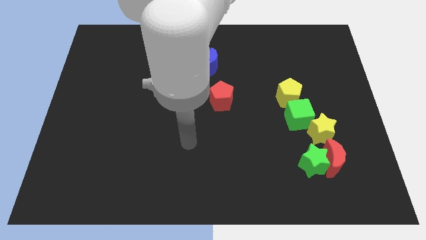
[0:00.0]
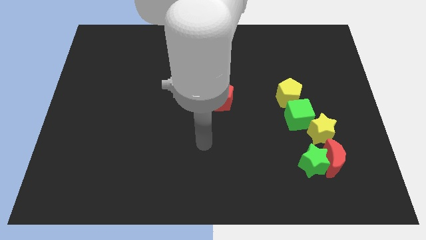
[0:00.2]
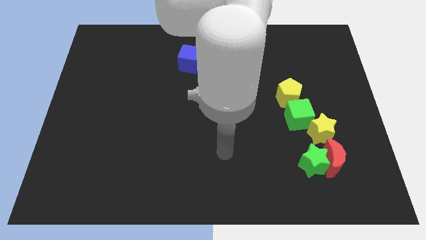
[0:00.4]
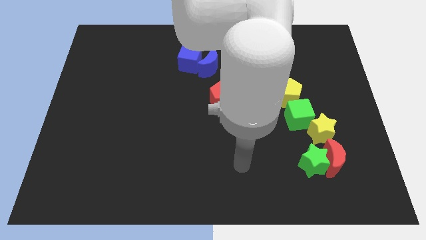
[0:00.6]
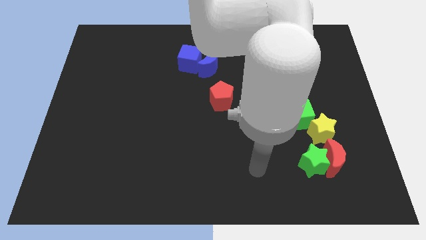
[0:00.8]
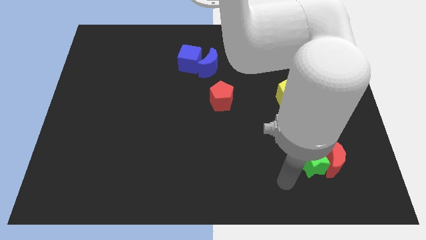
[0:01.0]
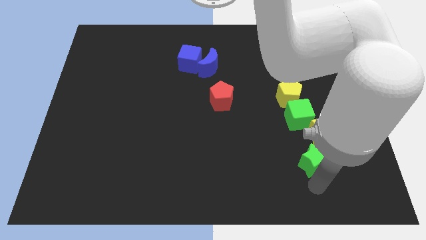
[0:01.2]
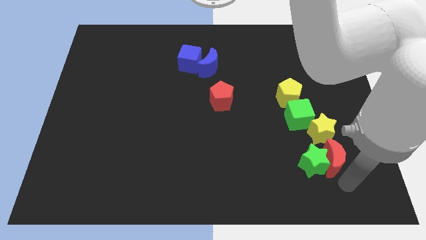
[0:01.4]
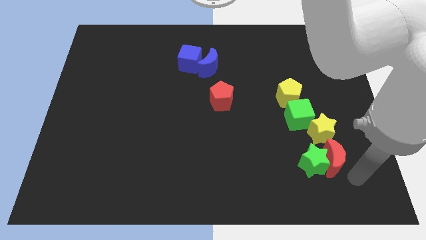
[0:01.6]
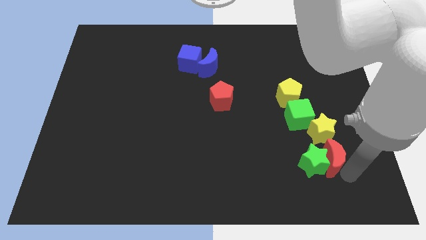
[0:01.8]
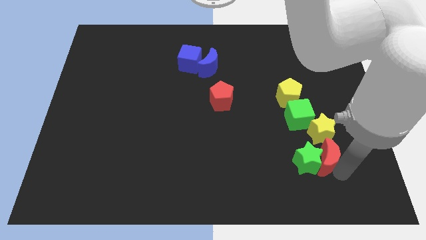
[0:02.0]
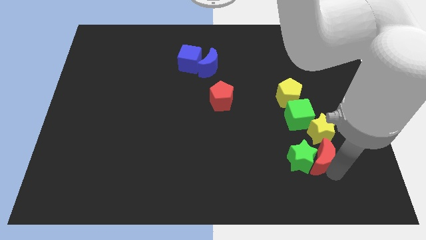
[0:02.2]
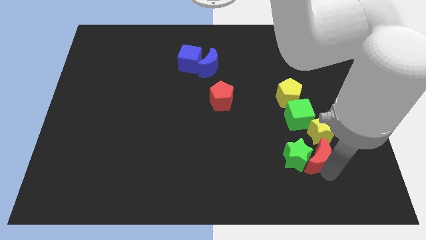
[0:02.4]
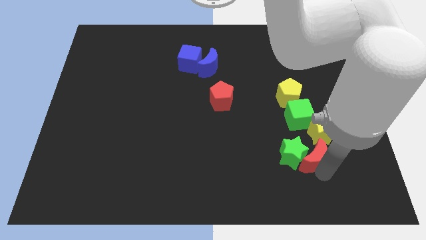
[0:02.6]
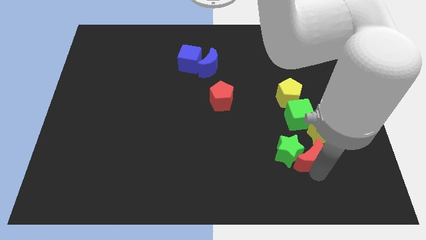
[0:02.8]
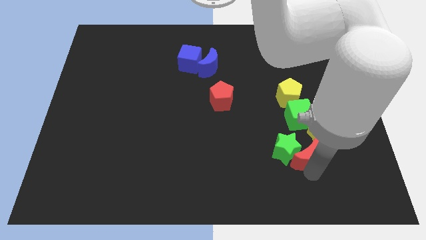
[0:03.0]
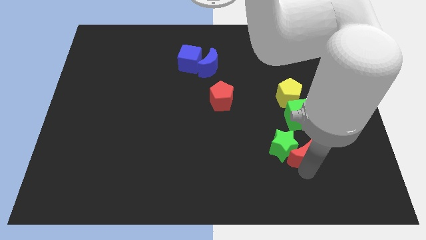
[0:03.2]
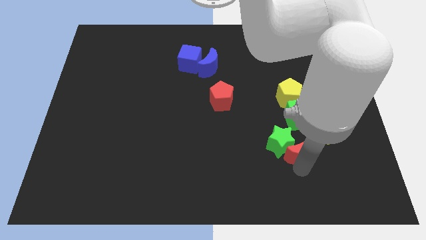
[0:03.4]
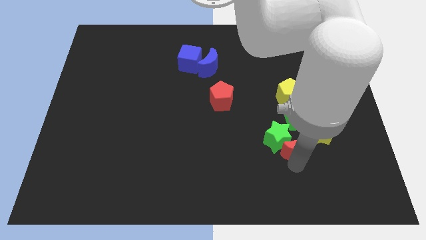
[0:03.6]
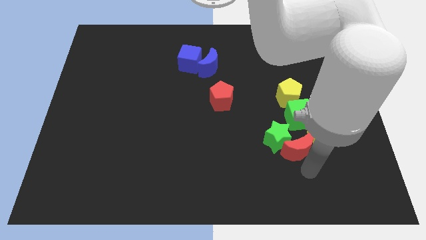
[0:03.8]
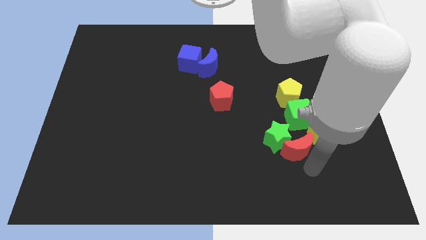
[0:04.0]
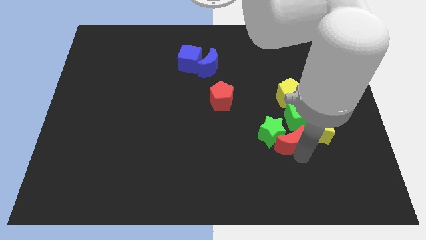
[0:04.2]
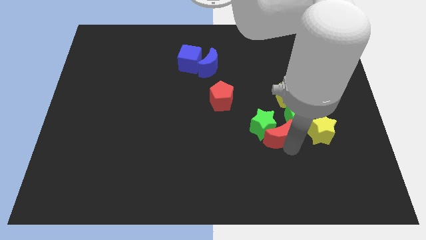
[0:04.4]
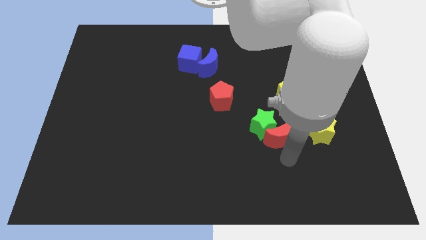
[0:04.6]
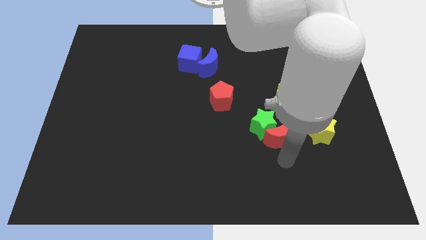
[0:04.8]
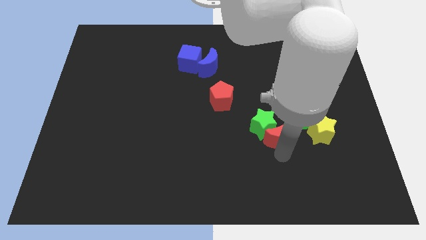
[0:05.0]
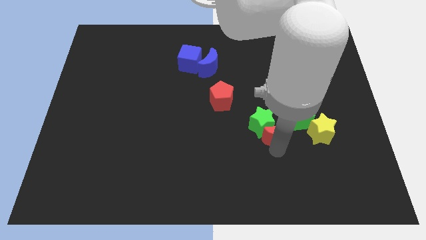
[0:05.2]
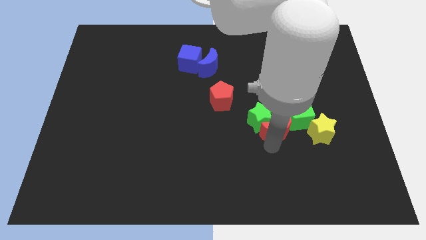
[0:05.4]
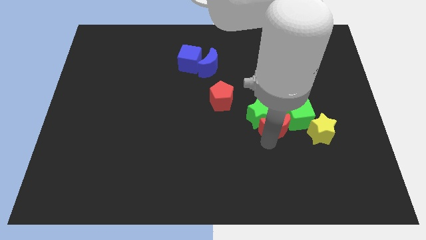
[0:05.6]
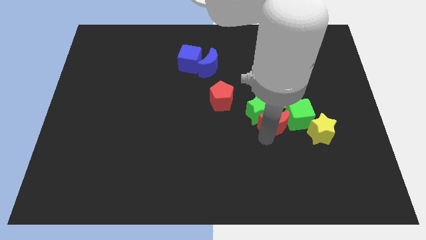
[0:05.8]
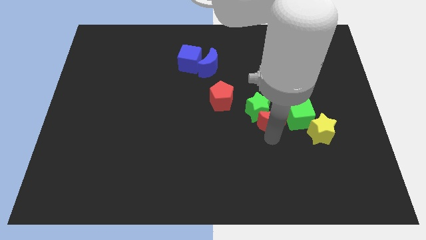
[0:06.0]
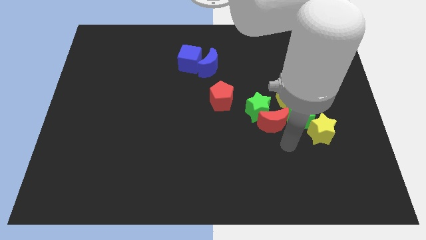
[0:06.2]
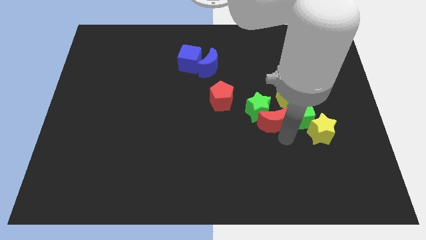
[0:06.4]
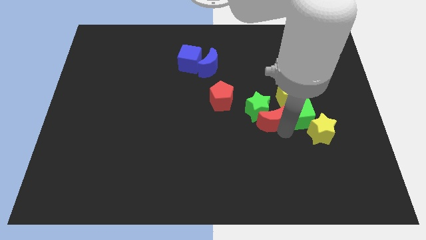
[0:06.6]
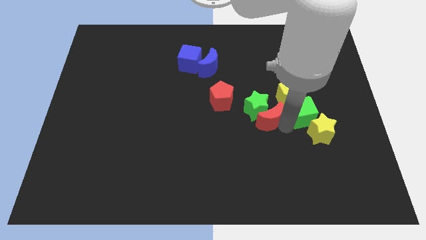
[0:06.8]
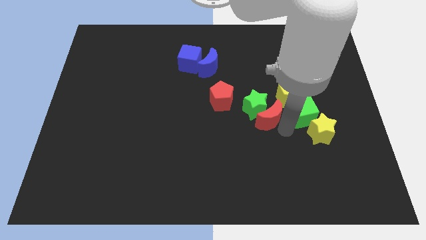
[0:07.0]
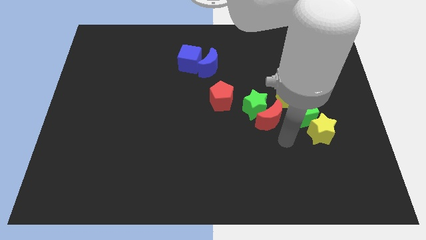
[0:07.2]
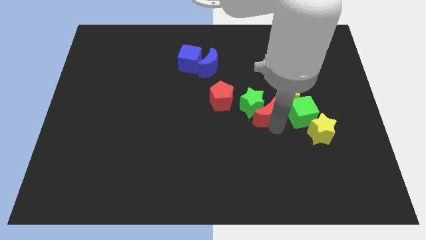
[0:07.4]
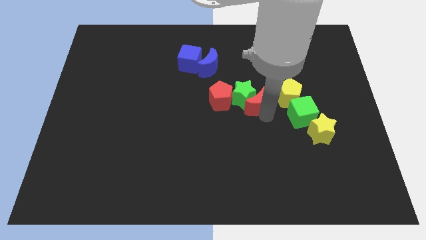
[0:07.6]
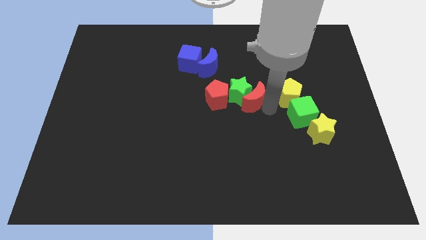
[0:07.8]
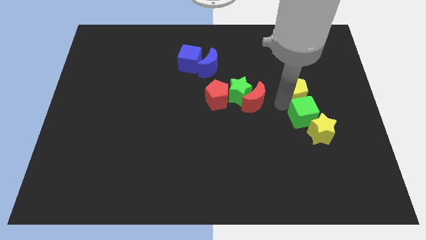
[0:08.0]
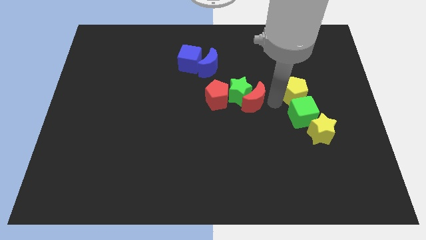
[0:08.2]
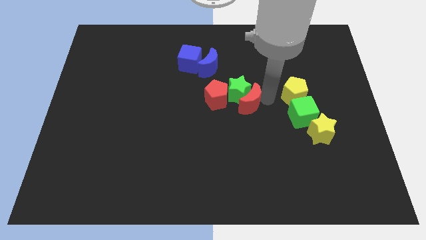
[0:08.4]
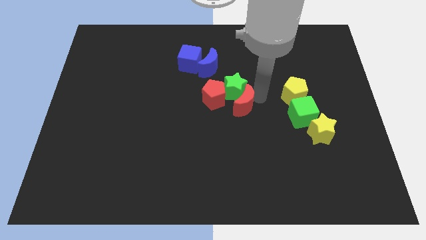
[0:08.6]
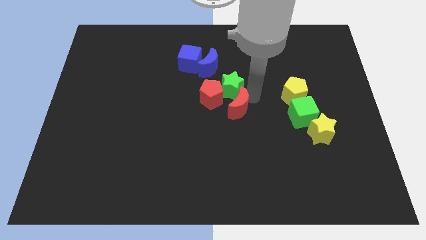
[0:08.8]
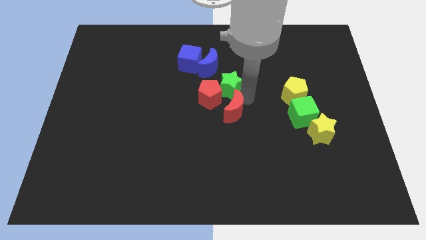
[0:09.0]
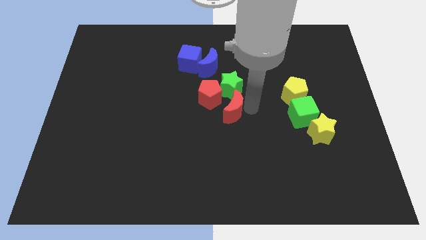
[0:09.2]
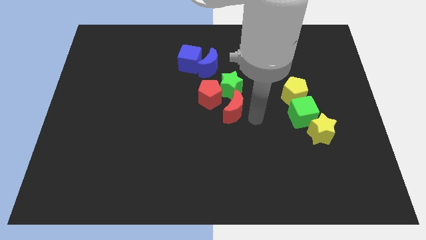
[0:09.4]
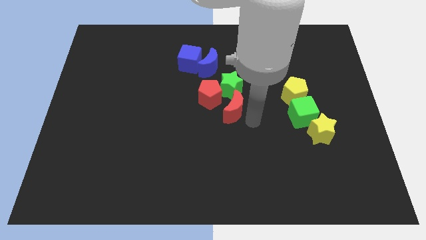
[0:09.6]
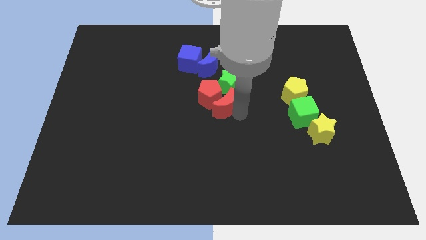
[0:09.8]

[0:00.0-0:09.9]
slide the red moon next to the red pentagon
